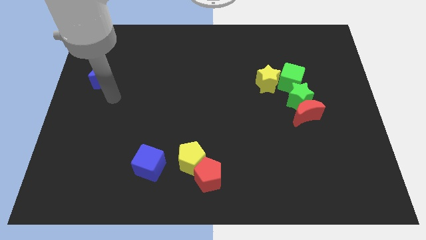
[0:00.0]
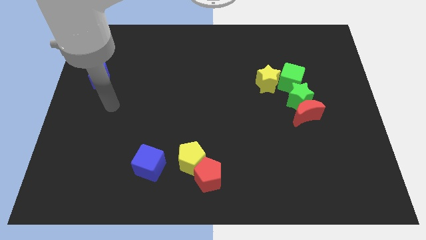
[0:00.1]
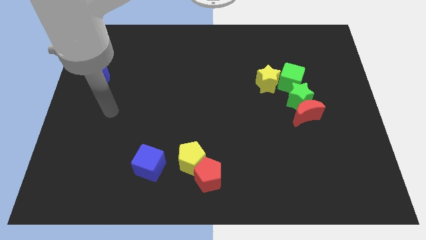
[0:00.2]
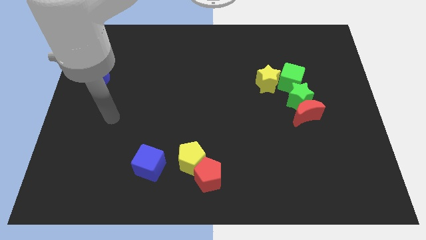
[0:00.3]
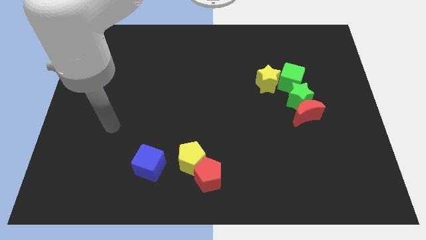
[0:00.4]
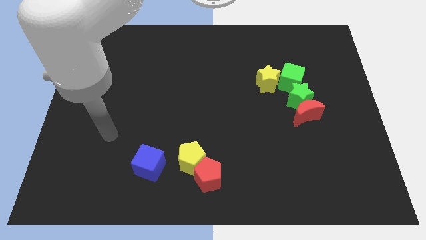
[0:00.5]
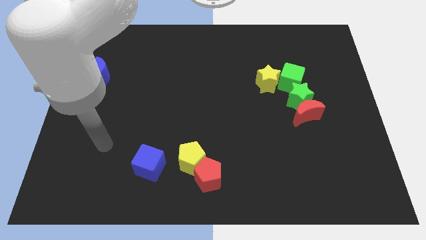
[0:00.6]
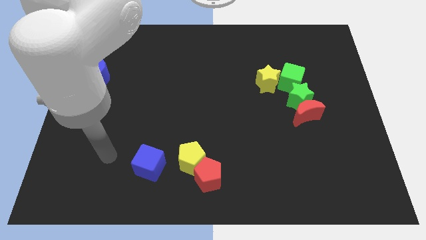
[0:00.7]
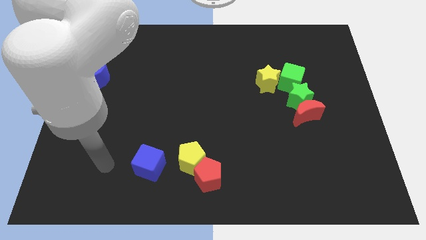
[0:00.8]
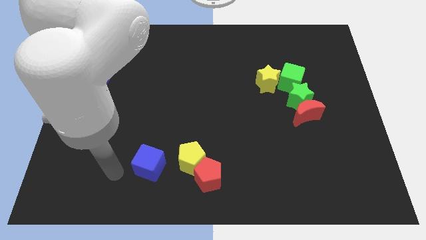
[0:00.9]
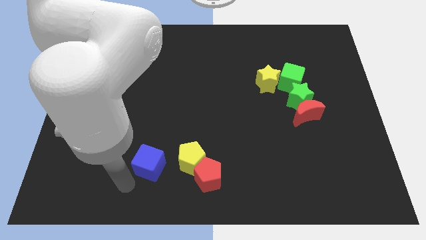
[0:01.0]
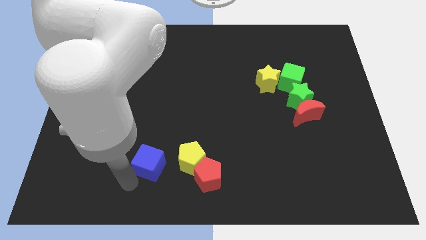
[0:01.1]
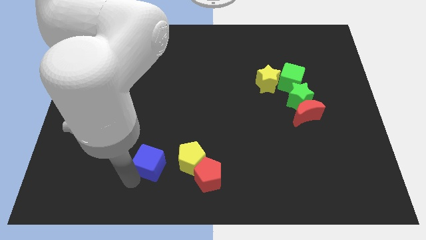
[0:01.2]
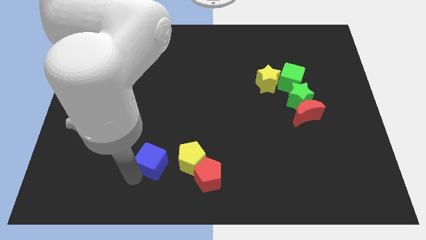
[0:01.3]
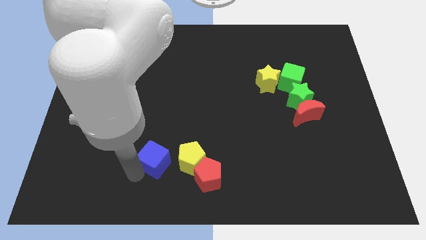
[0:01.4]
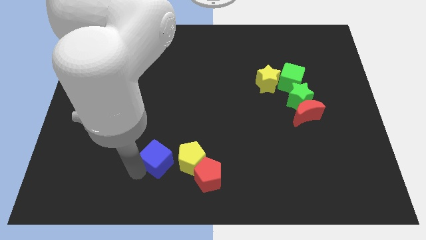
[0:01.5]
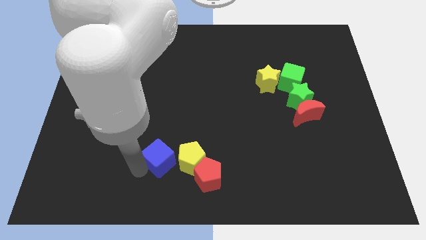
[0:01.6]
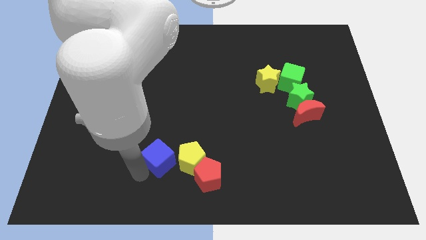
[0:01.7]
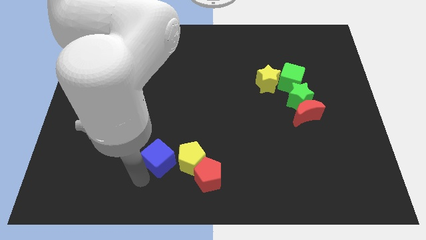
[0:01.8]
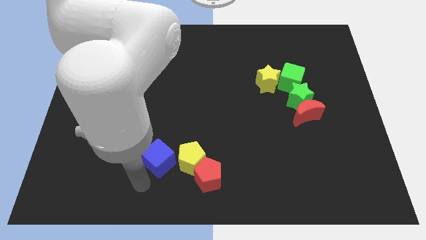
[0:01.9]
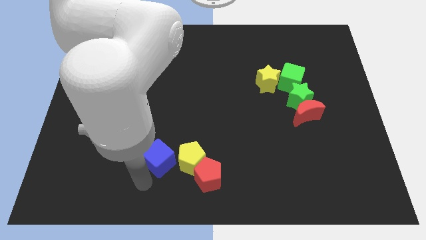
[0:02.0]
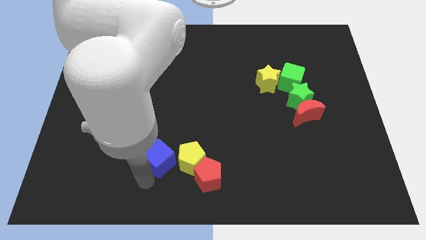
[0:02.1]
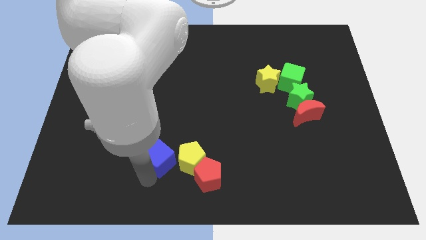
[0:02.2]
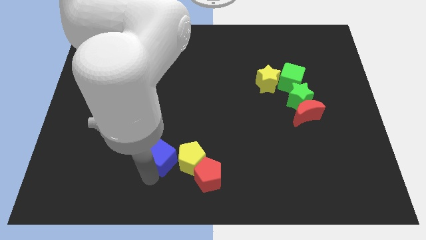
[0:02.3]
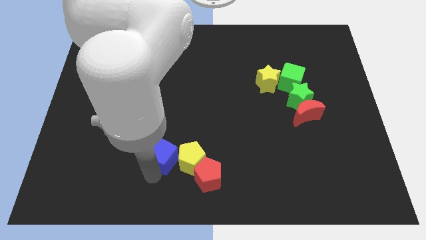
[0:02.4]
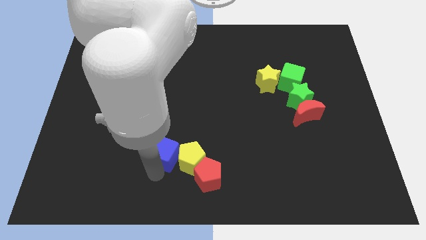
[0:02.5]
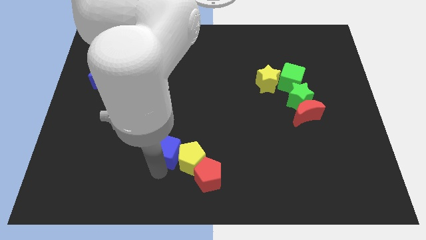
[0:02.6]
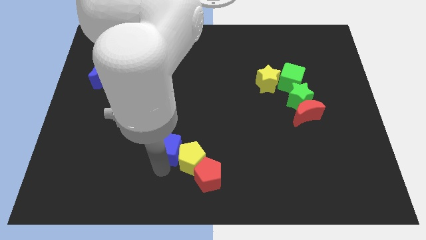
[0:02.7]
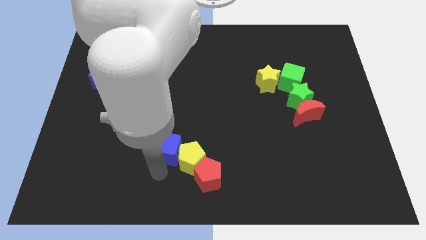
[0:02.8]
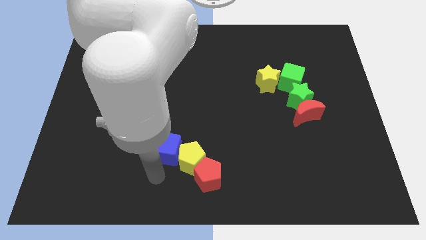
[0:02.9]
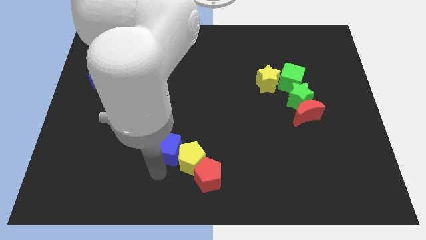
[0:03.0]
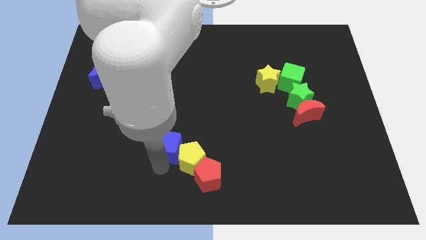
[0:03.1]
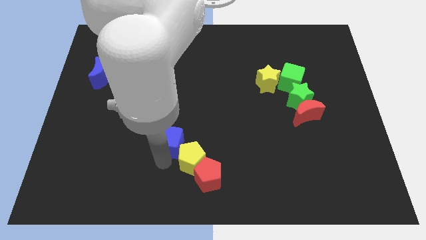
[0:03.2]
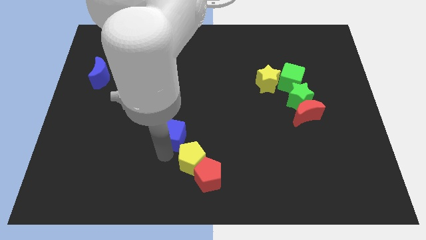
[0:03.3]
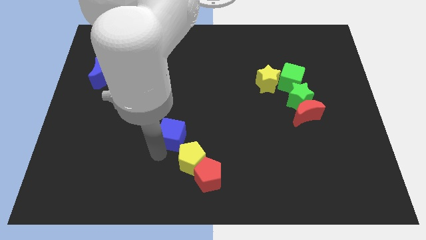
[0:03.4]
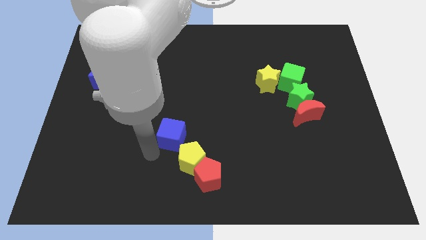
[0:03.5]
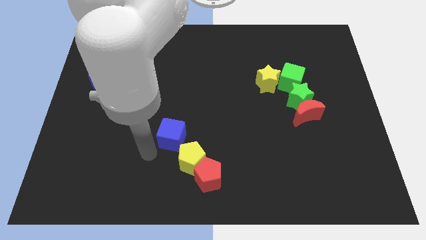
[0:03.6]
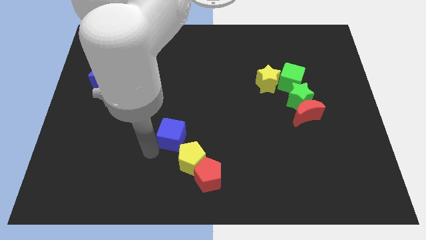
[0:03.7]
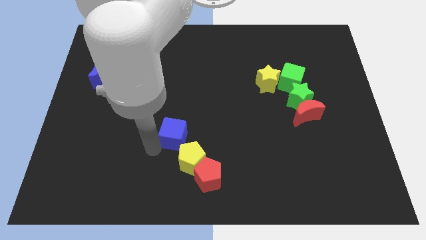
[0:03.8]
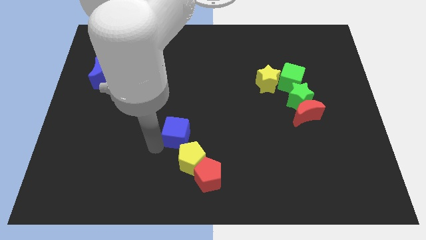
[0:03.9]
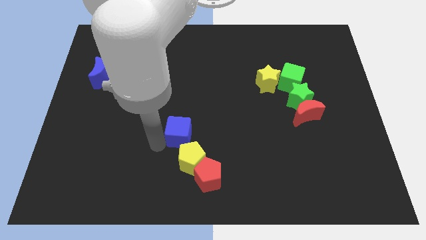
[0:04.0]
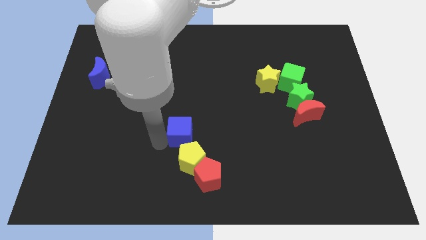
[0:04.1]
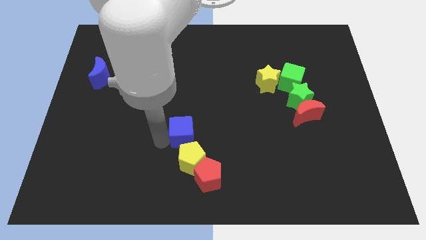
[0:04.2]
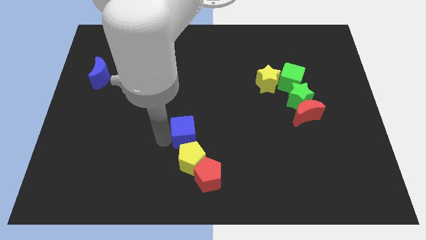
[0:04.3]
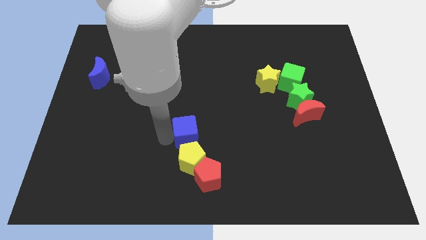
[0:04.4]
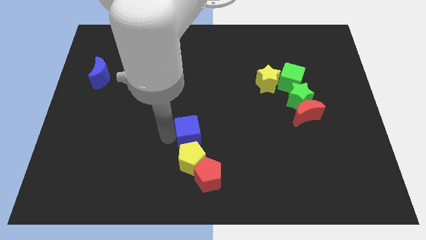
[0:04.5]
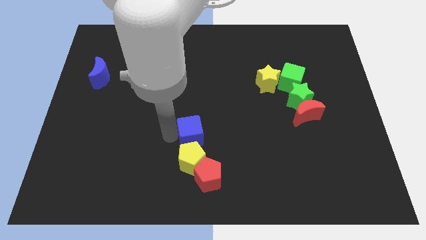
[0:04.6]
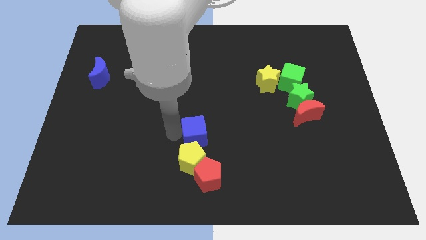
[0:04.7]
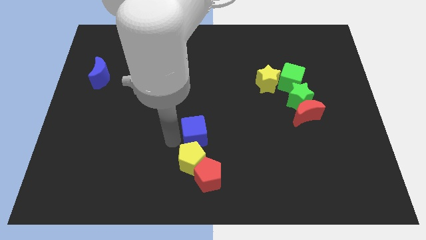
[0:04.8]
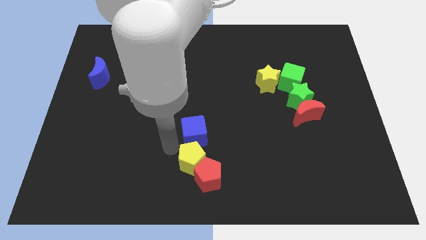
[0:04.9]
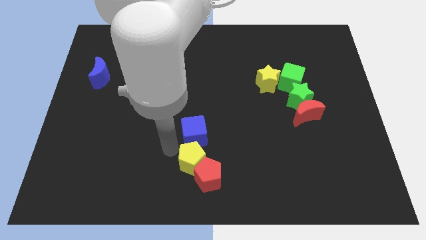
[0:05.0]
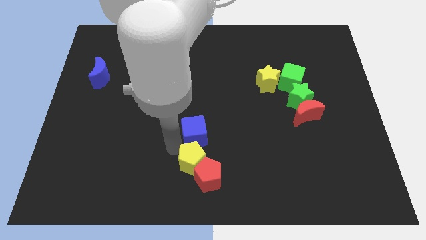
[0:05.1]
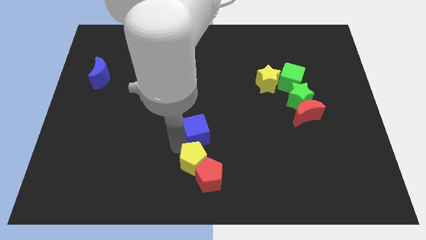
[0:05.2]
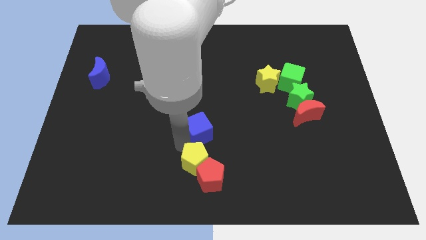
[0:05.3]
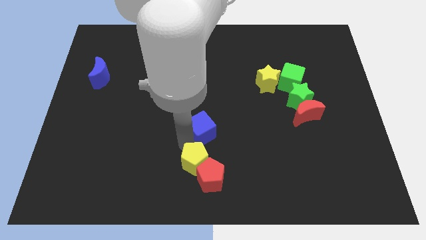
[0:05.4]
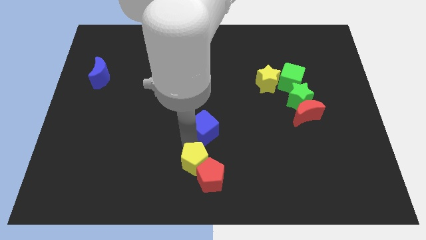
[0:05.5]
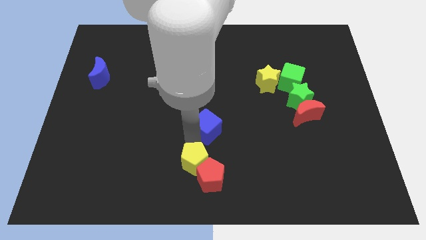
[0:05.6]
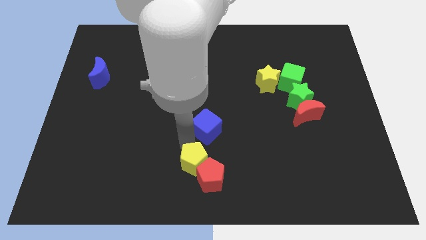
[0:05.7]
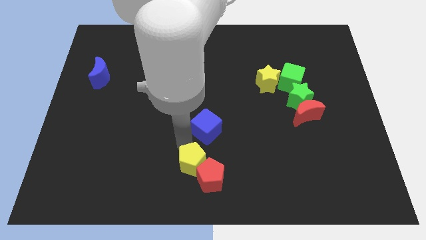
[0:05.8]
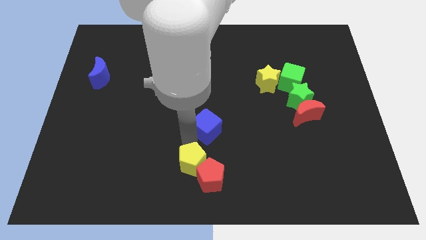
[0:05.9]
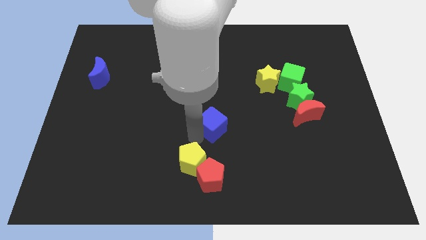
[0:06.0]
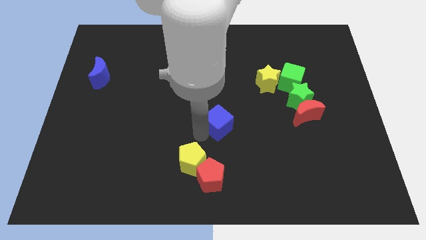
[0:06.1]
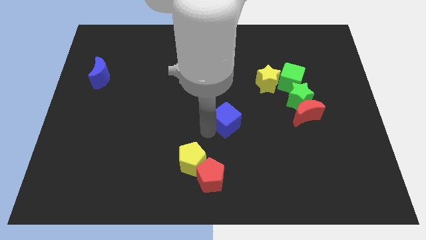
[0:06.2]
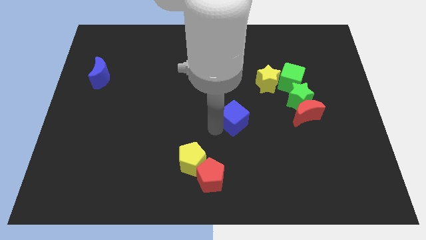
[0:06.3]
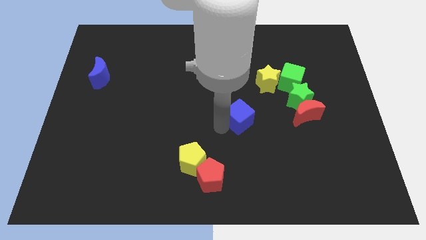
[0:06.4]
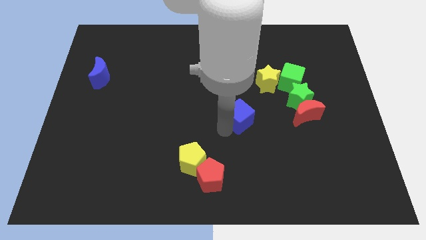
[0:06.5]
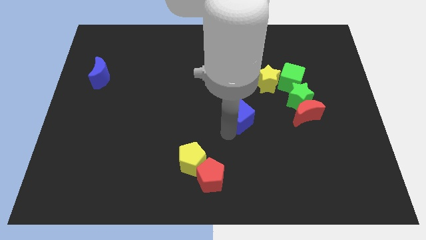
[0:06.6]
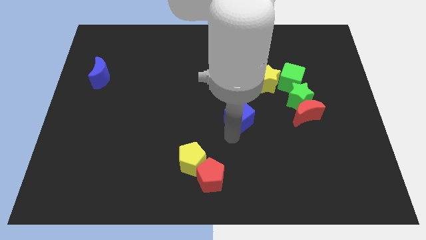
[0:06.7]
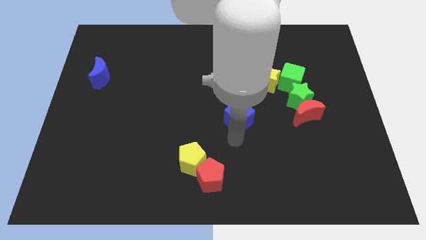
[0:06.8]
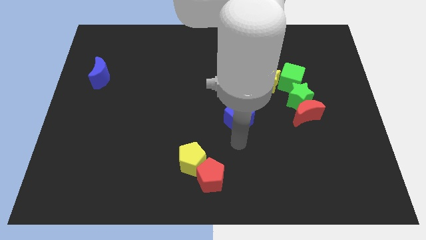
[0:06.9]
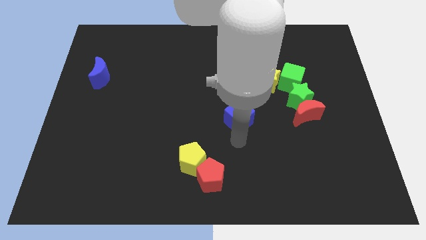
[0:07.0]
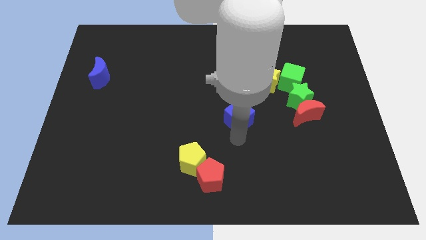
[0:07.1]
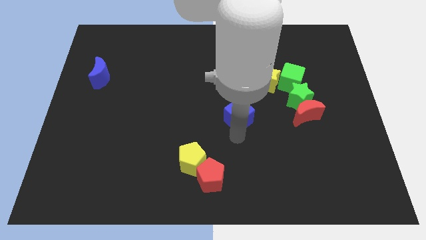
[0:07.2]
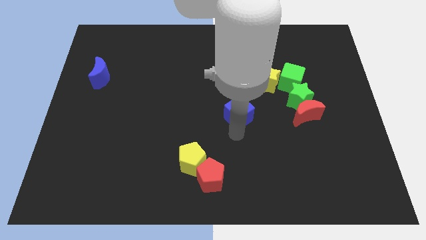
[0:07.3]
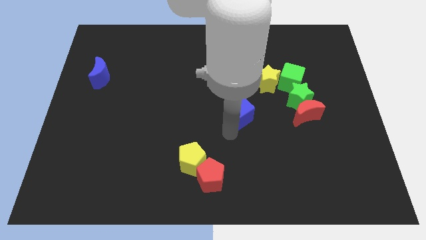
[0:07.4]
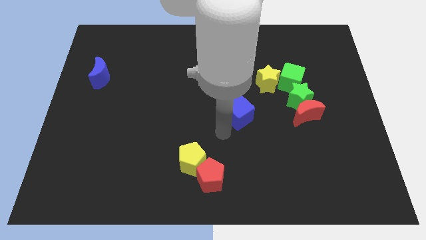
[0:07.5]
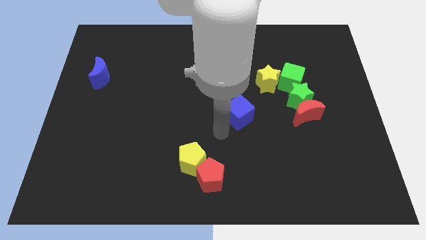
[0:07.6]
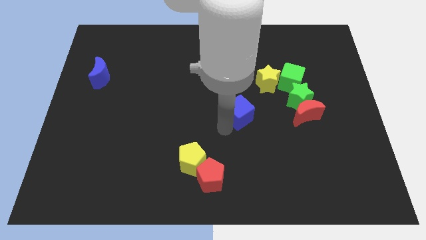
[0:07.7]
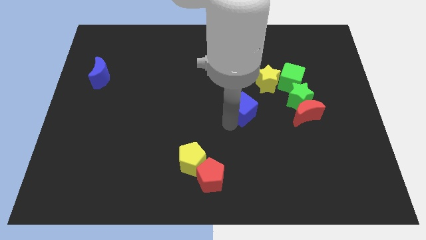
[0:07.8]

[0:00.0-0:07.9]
move the blue cube to the left side of the green star
